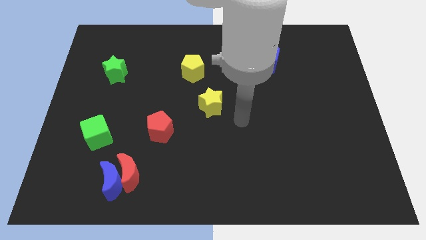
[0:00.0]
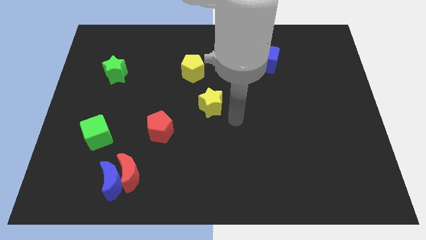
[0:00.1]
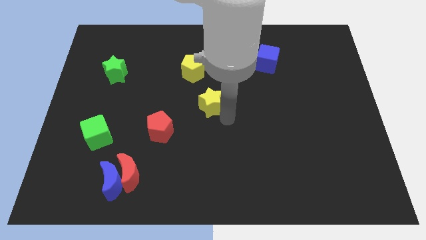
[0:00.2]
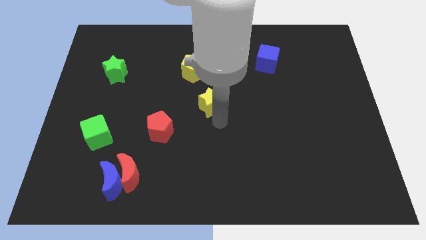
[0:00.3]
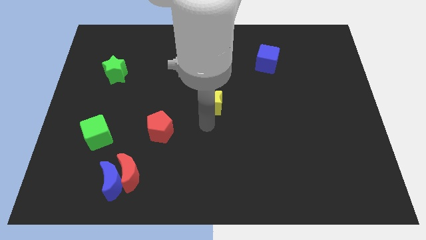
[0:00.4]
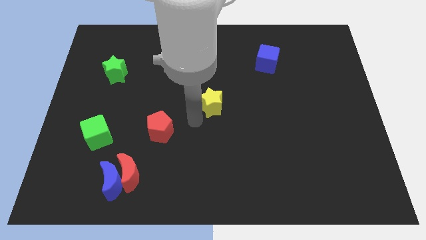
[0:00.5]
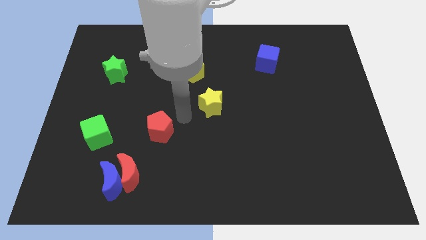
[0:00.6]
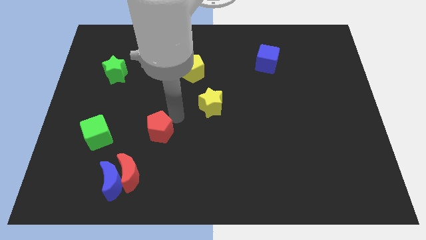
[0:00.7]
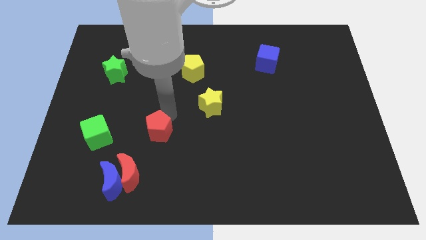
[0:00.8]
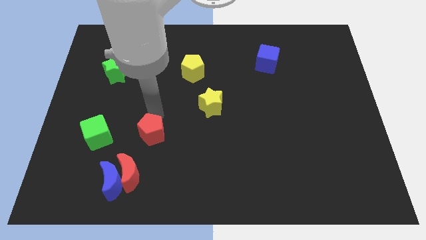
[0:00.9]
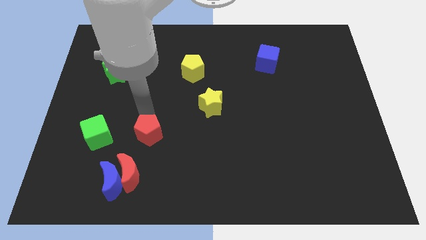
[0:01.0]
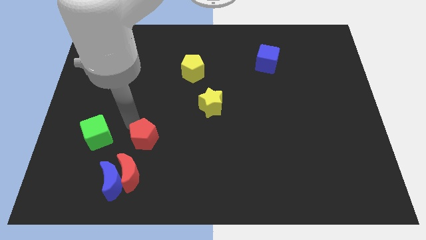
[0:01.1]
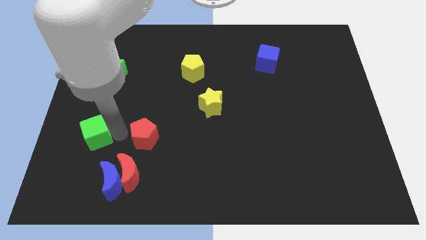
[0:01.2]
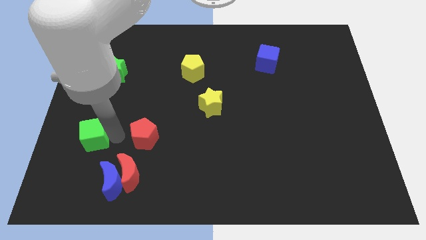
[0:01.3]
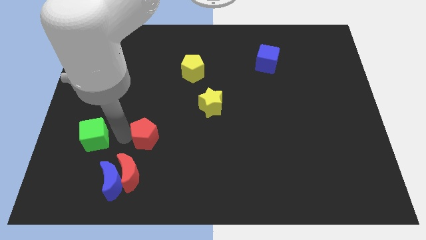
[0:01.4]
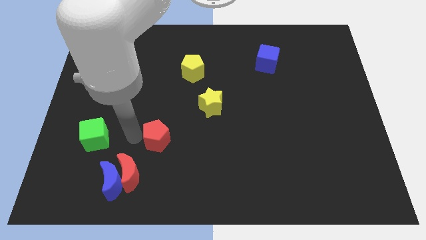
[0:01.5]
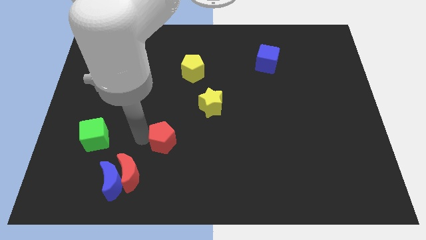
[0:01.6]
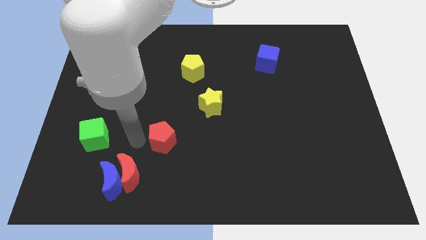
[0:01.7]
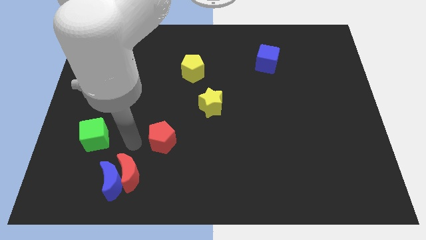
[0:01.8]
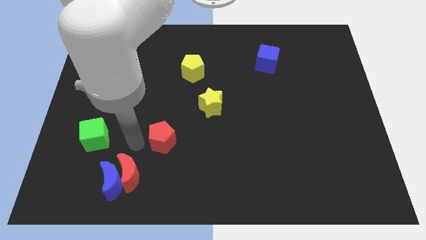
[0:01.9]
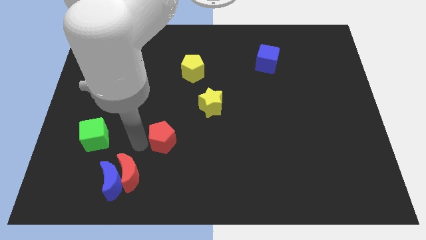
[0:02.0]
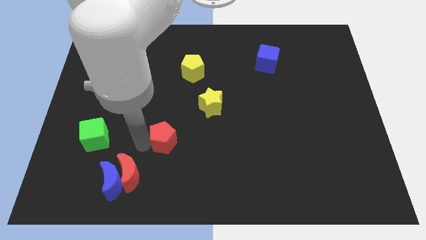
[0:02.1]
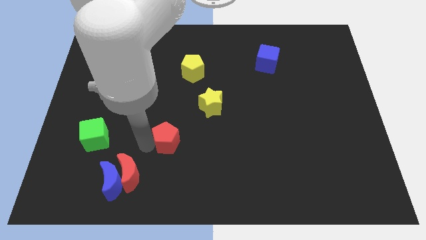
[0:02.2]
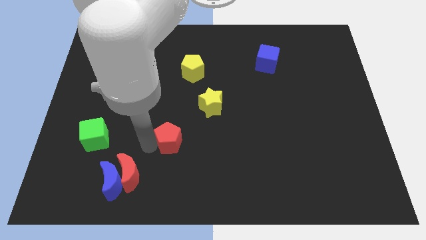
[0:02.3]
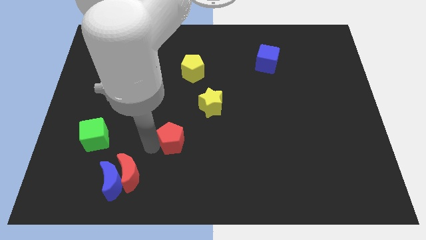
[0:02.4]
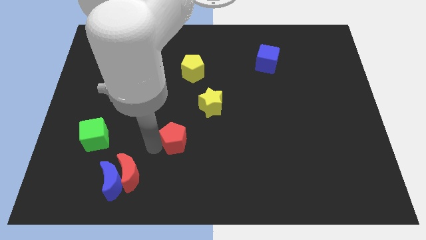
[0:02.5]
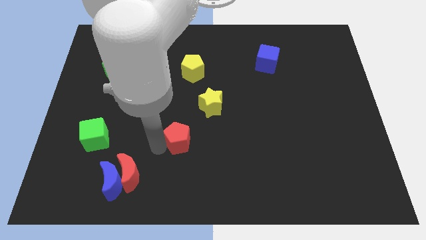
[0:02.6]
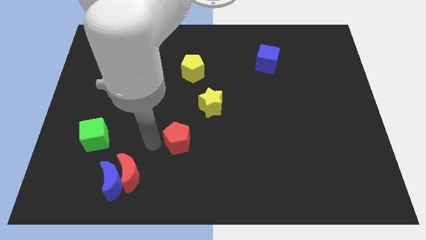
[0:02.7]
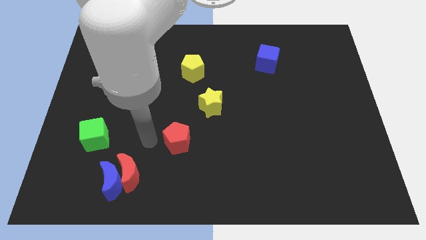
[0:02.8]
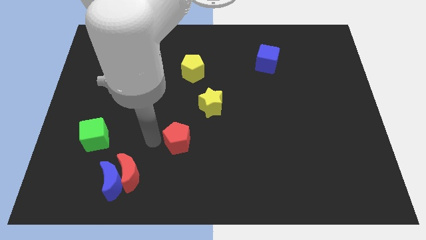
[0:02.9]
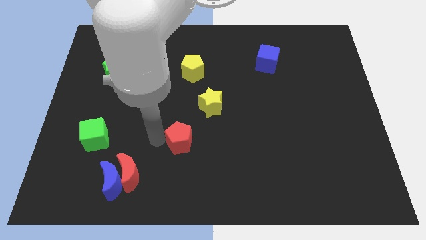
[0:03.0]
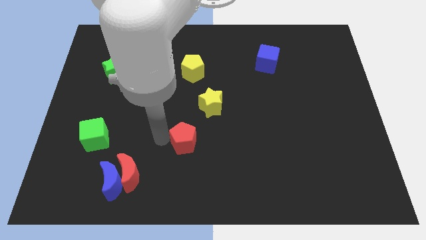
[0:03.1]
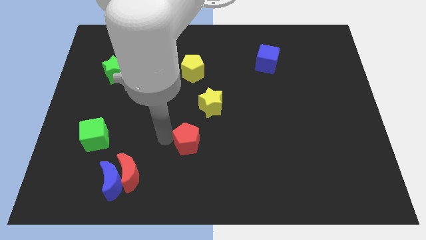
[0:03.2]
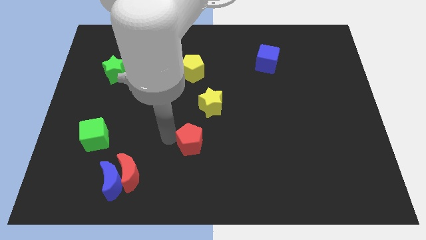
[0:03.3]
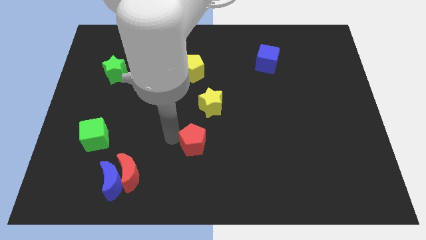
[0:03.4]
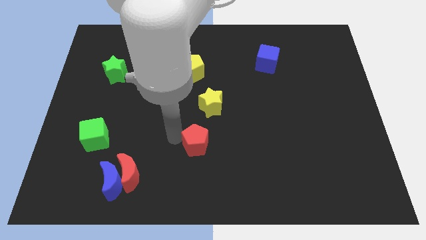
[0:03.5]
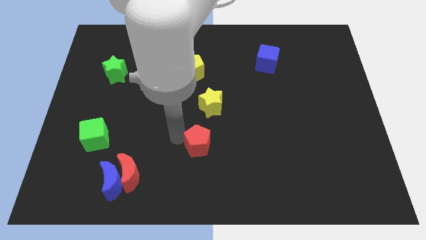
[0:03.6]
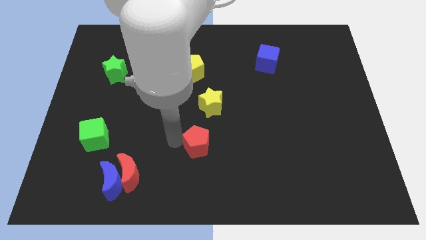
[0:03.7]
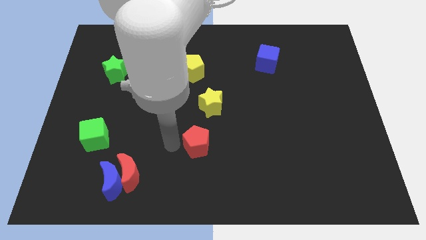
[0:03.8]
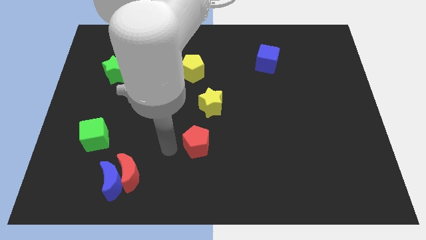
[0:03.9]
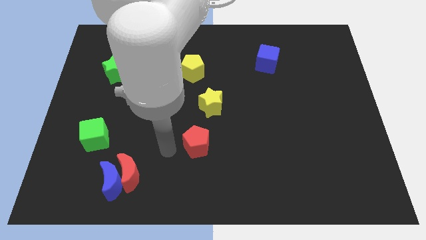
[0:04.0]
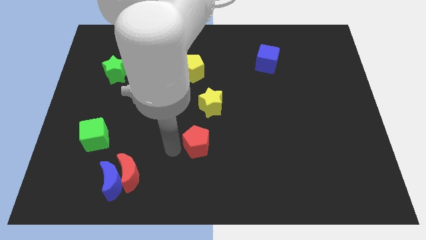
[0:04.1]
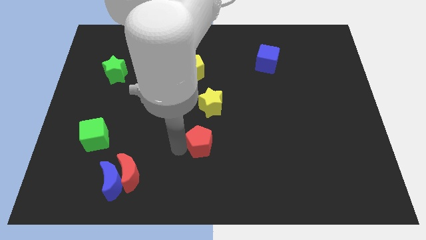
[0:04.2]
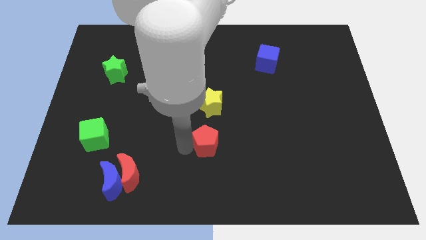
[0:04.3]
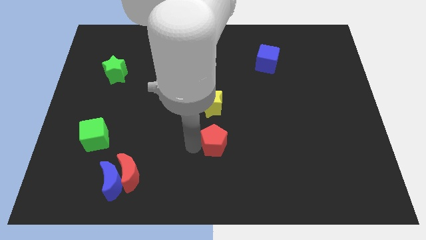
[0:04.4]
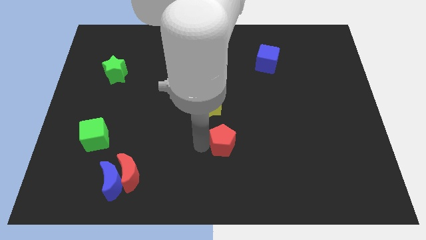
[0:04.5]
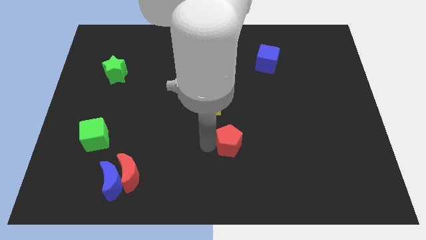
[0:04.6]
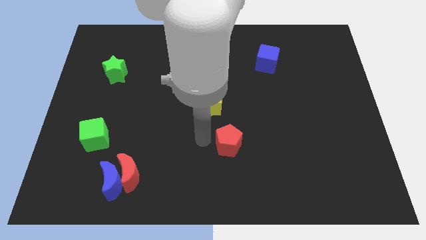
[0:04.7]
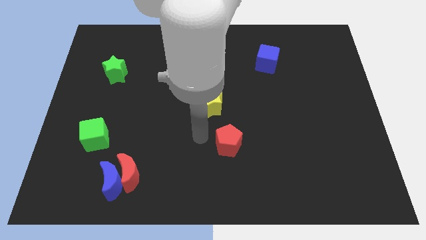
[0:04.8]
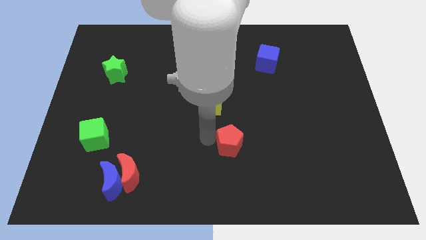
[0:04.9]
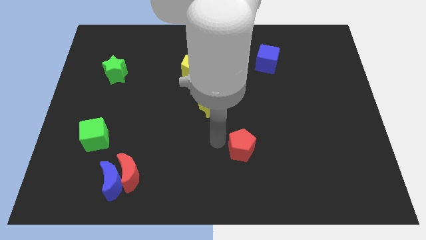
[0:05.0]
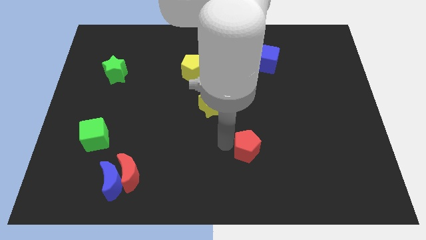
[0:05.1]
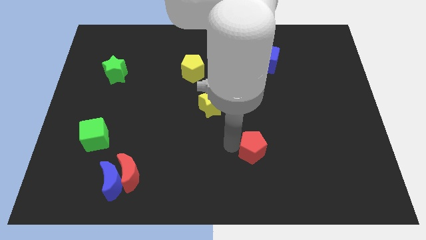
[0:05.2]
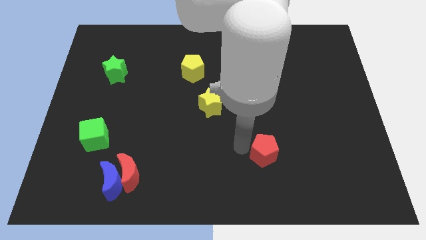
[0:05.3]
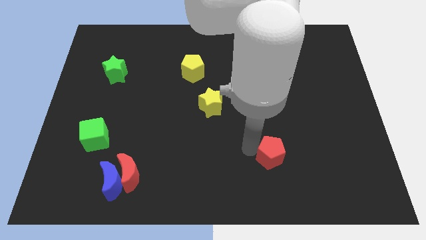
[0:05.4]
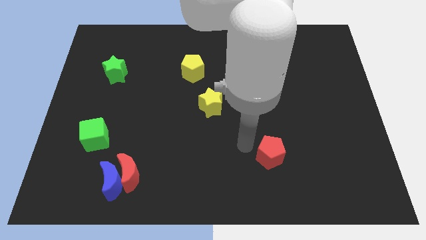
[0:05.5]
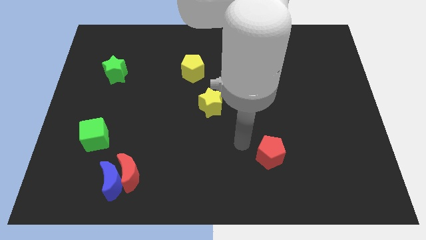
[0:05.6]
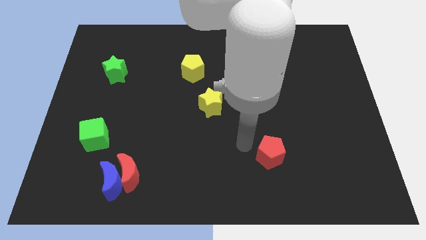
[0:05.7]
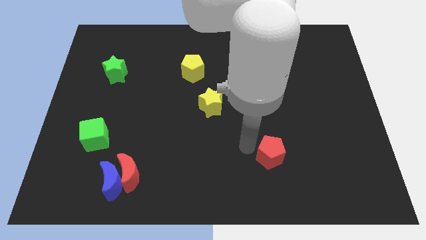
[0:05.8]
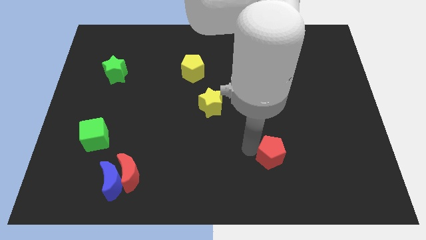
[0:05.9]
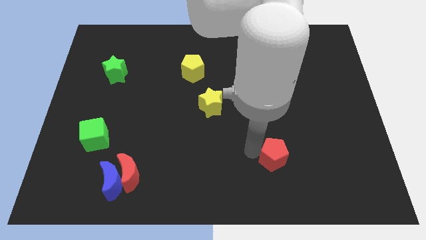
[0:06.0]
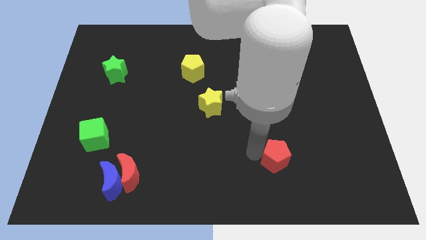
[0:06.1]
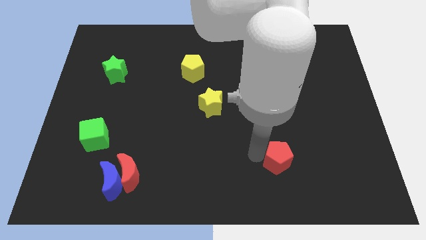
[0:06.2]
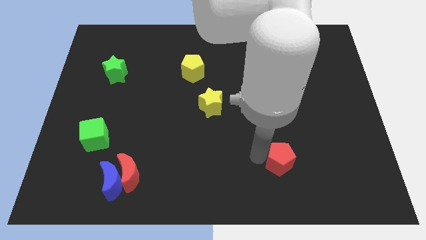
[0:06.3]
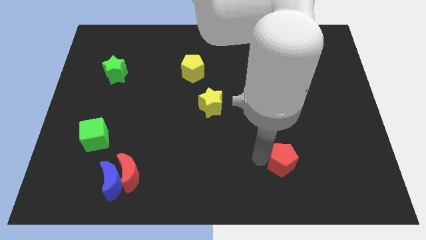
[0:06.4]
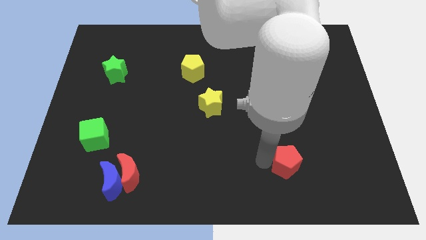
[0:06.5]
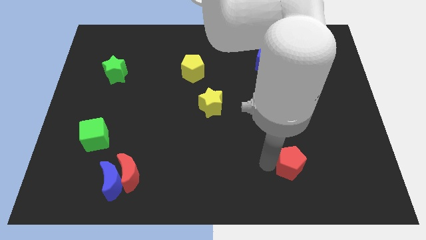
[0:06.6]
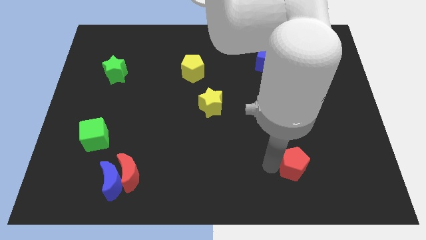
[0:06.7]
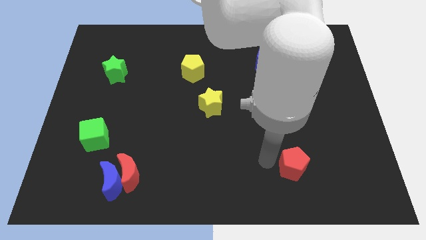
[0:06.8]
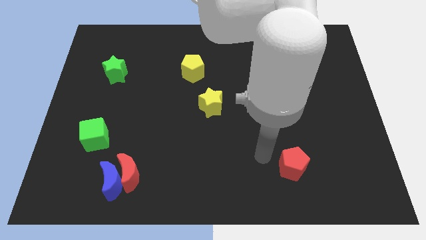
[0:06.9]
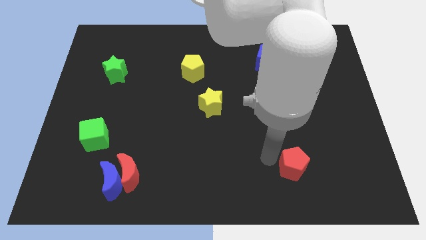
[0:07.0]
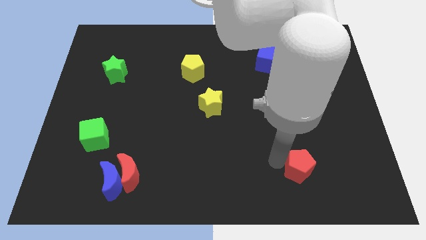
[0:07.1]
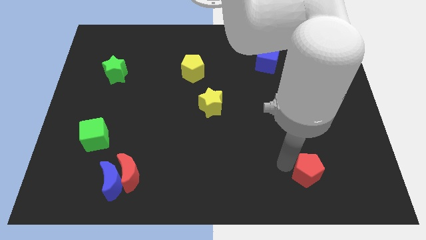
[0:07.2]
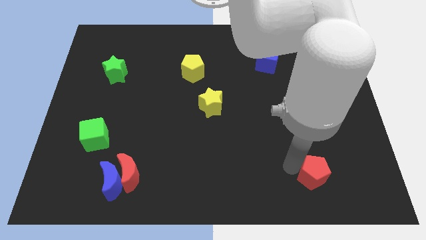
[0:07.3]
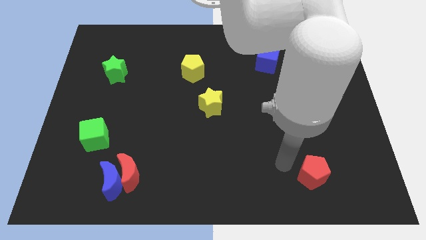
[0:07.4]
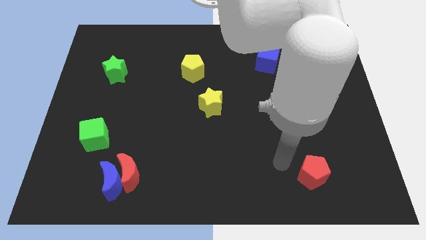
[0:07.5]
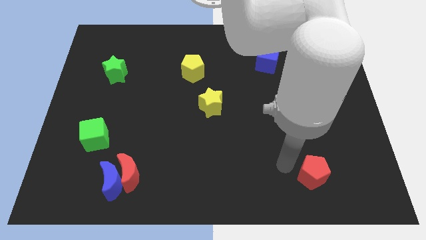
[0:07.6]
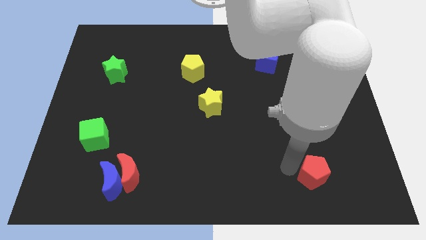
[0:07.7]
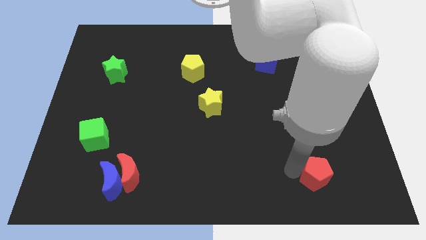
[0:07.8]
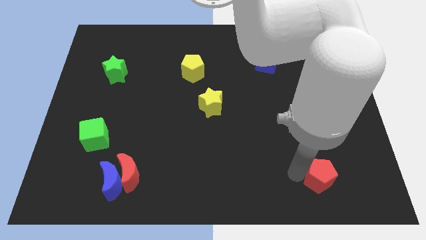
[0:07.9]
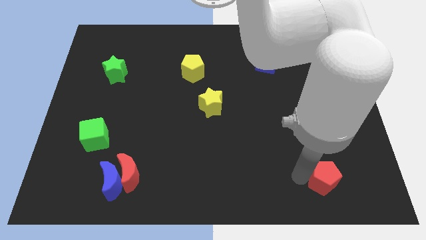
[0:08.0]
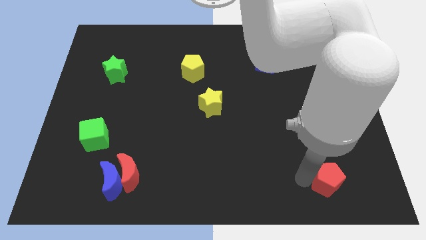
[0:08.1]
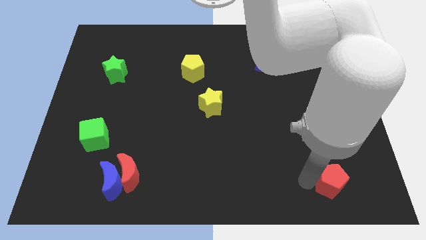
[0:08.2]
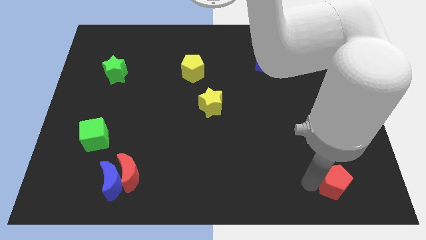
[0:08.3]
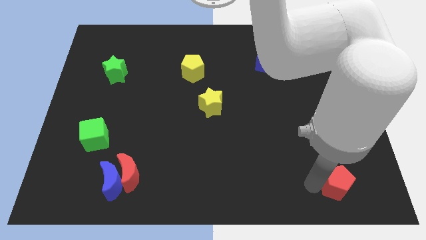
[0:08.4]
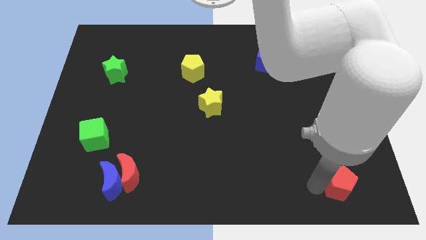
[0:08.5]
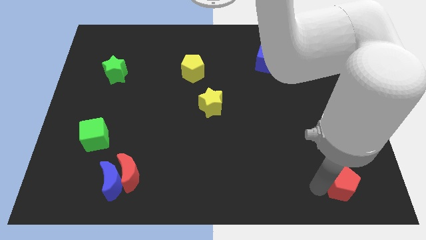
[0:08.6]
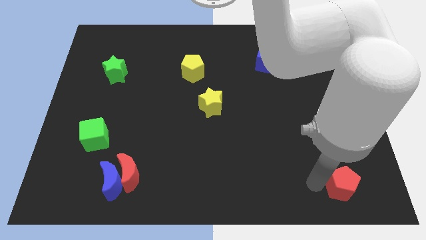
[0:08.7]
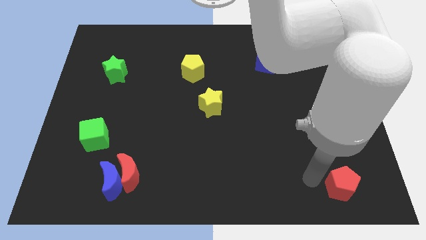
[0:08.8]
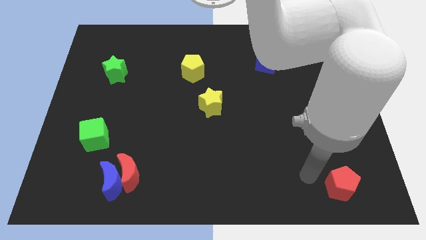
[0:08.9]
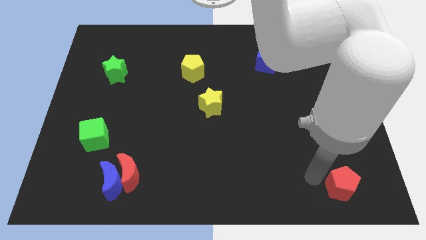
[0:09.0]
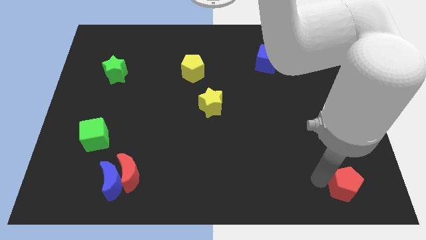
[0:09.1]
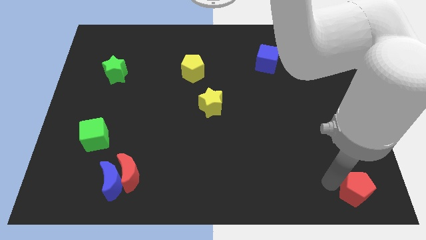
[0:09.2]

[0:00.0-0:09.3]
slide the red pentagon to the bottom right corner
